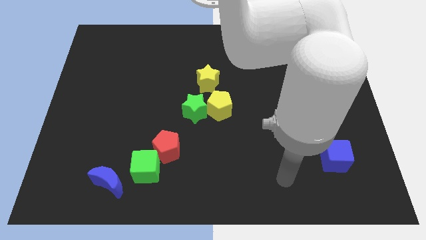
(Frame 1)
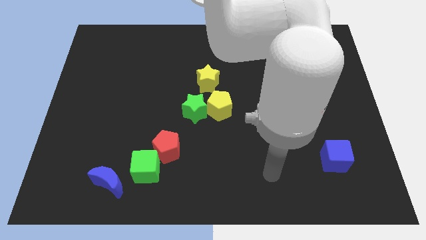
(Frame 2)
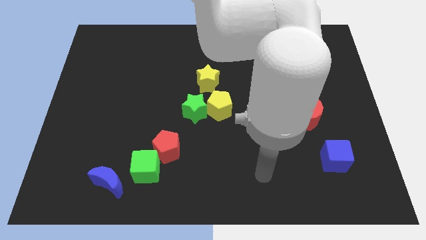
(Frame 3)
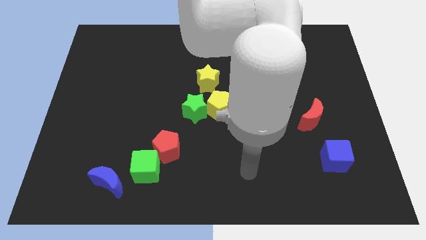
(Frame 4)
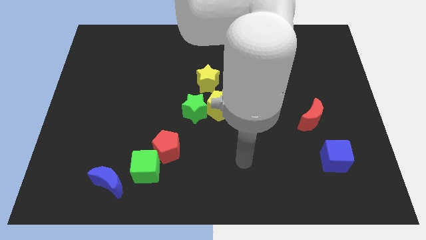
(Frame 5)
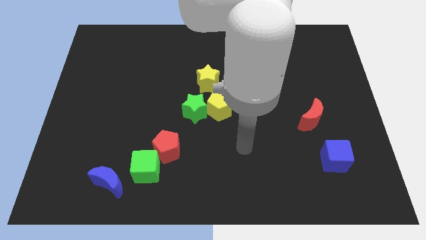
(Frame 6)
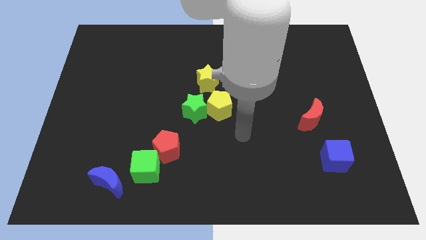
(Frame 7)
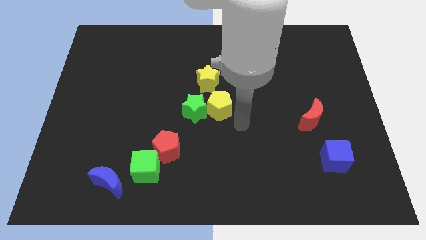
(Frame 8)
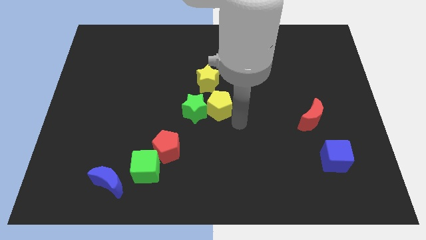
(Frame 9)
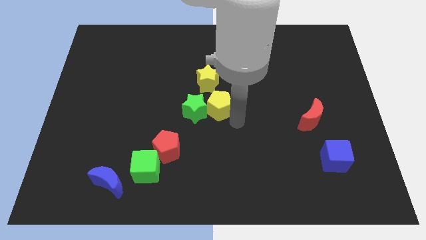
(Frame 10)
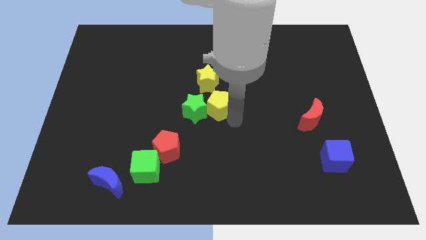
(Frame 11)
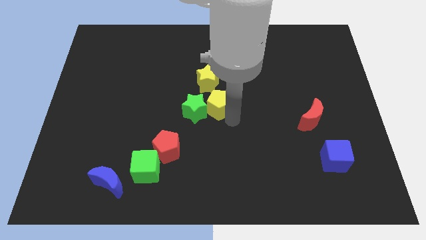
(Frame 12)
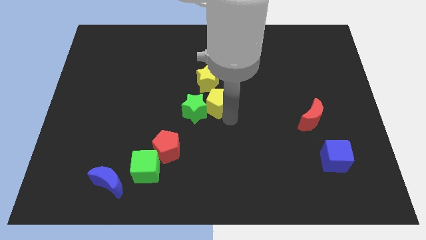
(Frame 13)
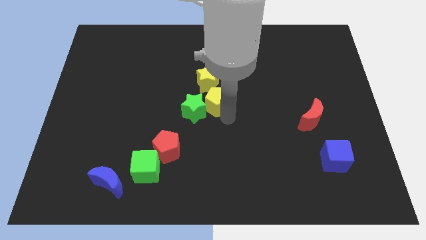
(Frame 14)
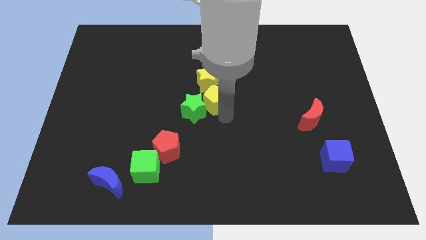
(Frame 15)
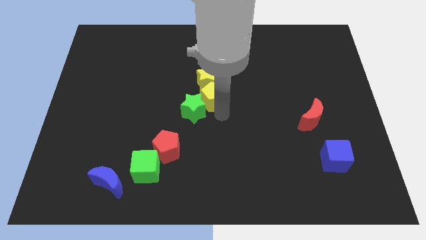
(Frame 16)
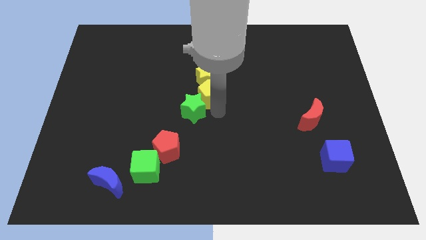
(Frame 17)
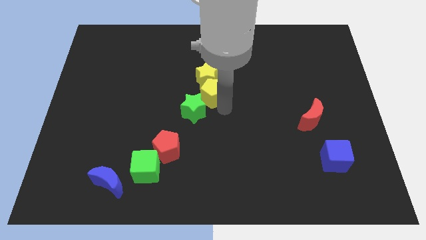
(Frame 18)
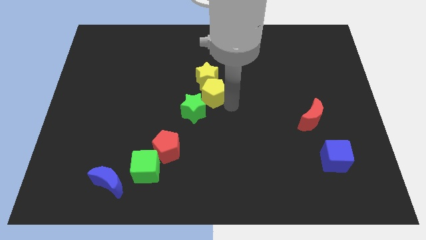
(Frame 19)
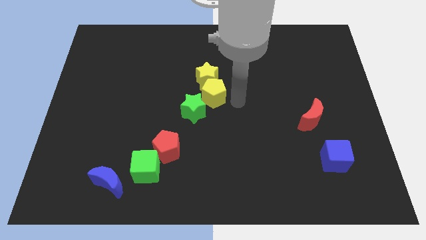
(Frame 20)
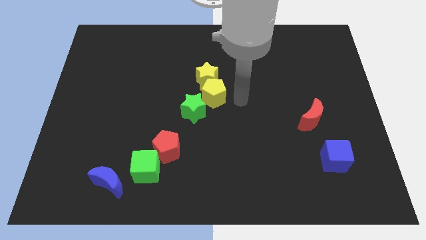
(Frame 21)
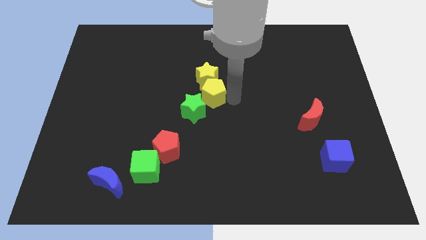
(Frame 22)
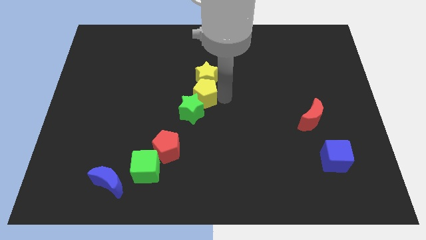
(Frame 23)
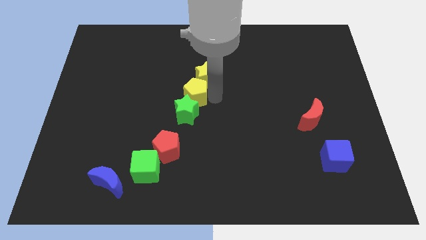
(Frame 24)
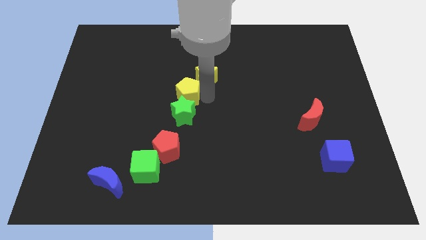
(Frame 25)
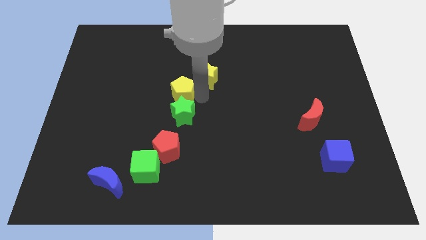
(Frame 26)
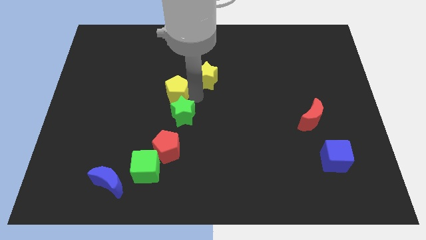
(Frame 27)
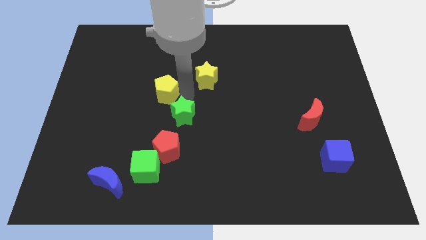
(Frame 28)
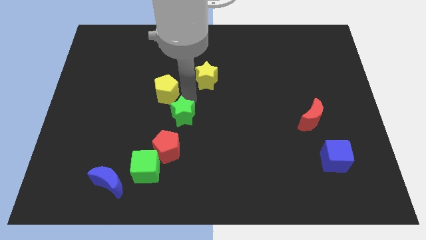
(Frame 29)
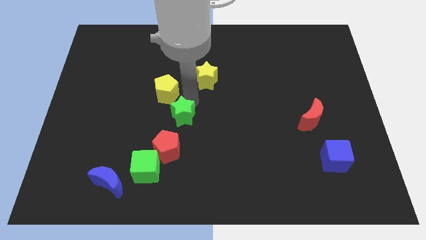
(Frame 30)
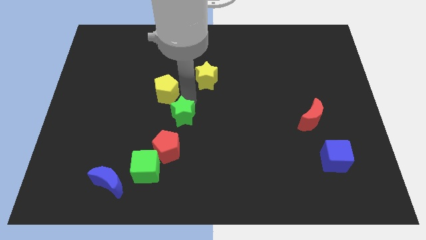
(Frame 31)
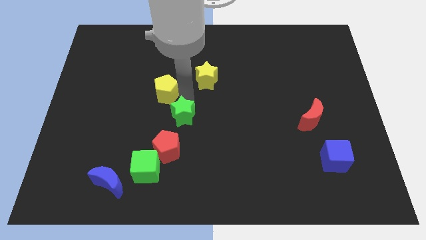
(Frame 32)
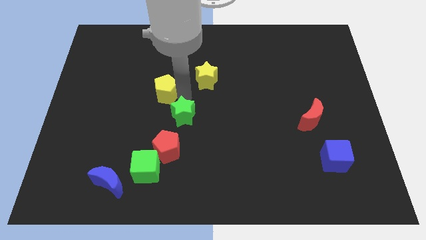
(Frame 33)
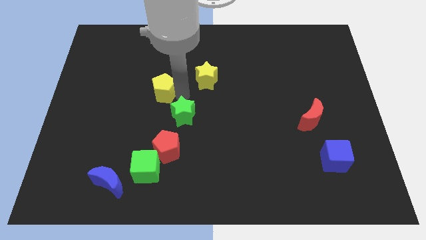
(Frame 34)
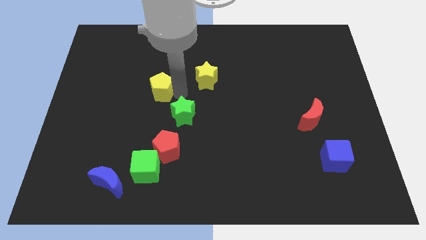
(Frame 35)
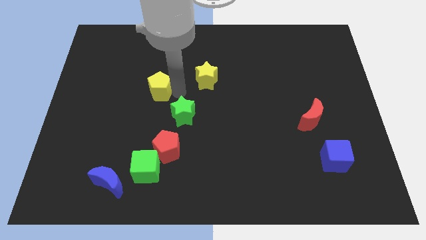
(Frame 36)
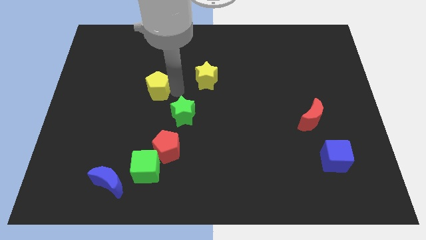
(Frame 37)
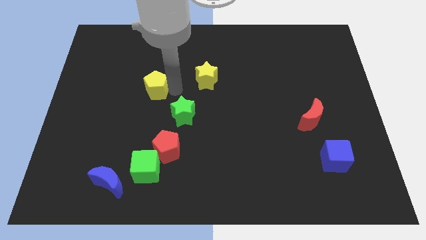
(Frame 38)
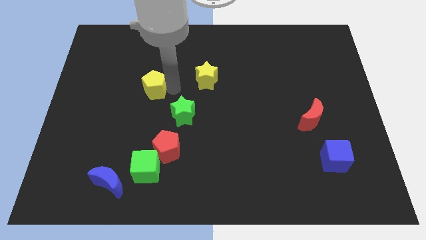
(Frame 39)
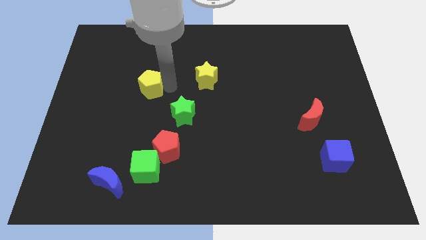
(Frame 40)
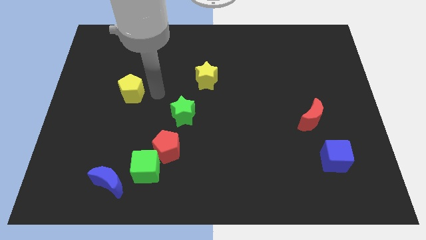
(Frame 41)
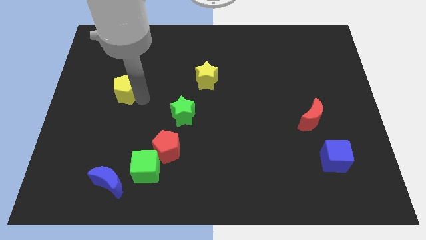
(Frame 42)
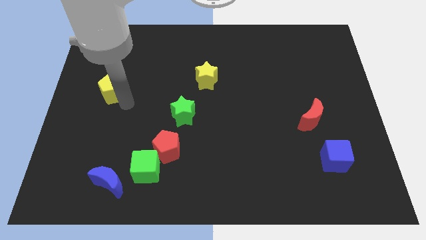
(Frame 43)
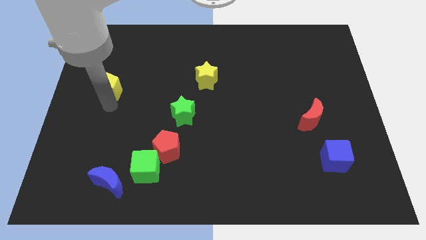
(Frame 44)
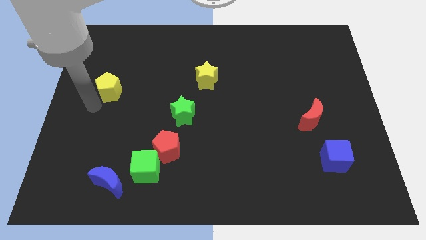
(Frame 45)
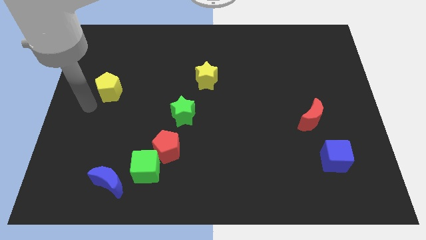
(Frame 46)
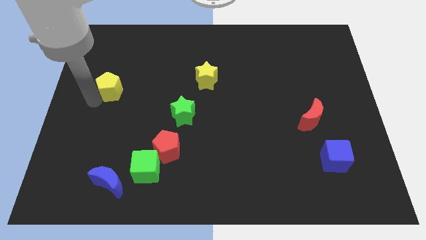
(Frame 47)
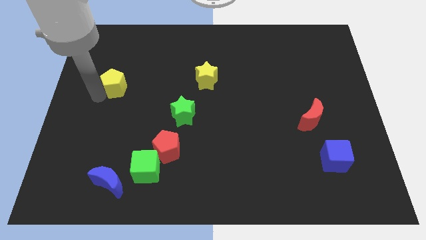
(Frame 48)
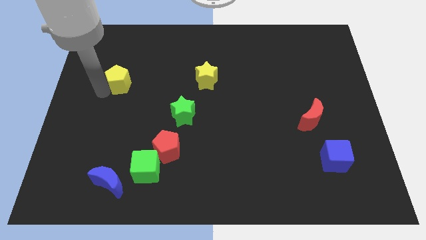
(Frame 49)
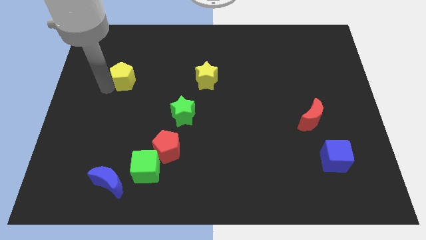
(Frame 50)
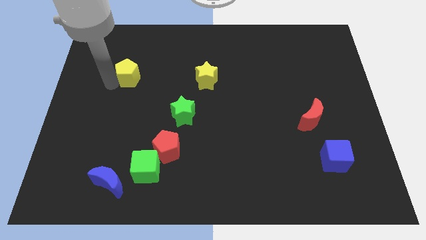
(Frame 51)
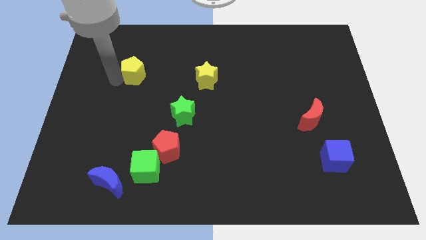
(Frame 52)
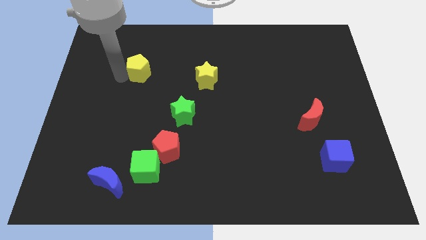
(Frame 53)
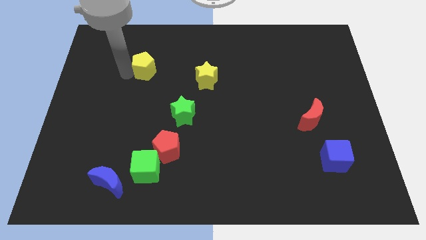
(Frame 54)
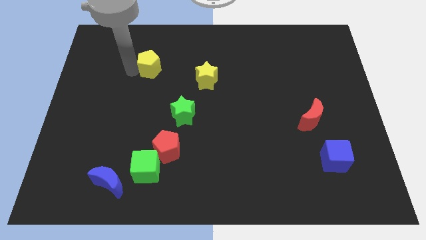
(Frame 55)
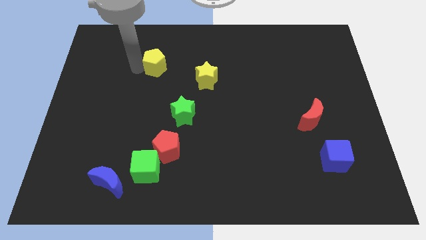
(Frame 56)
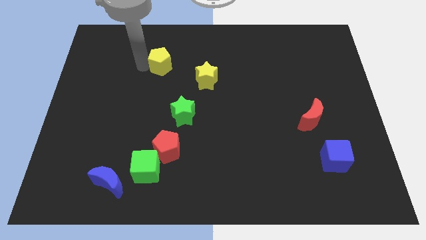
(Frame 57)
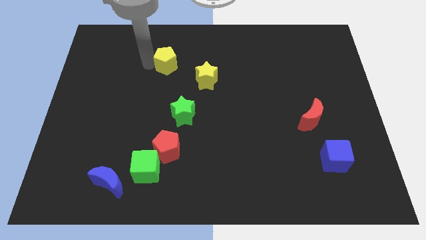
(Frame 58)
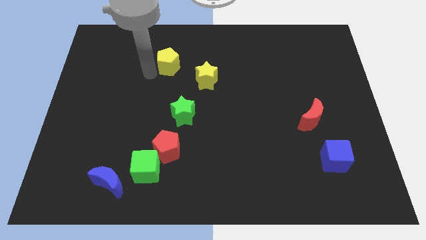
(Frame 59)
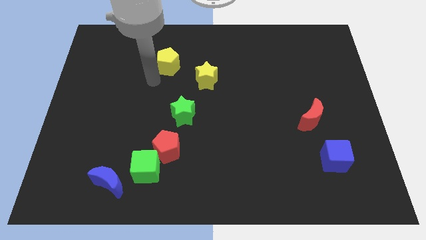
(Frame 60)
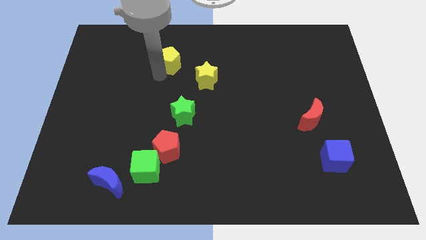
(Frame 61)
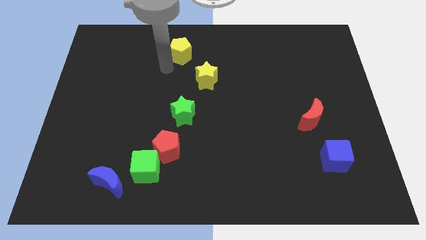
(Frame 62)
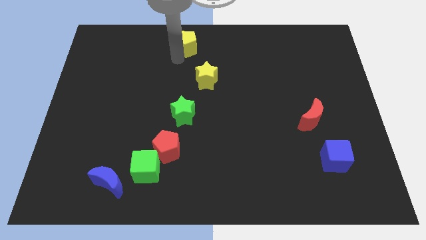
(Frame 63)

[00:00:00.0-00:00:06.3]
move the yellow pentagon to the towards your base
